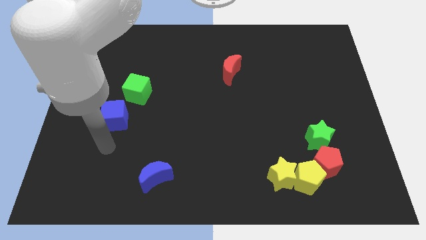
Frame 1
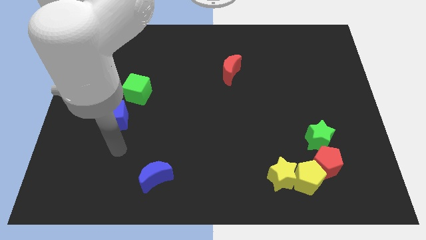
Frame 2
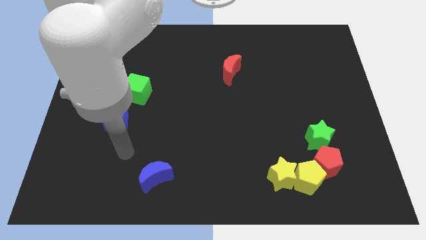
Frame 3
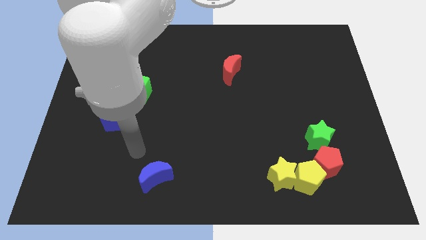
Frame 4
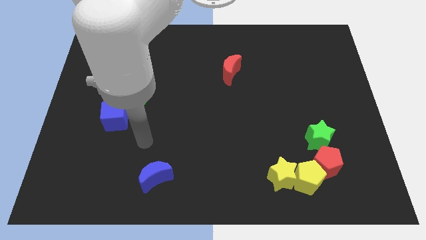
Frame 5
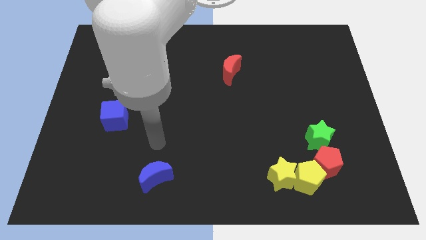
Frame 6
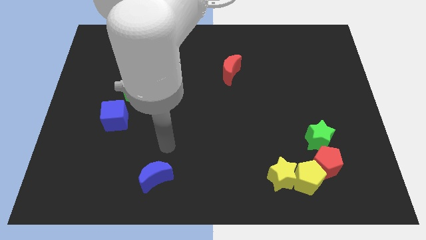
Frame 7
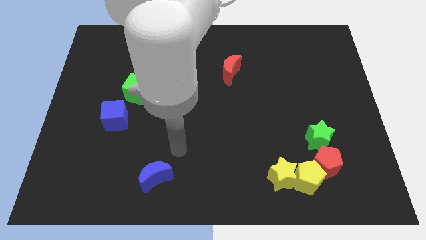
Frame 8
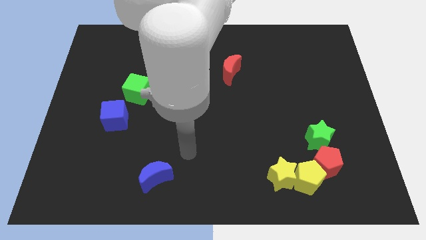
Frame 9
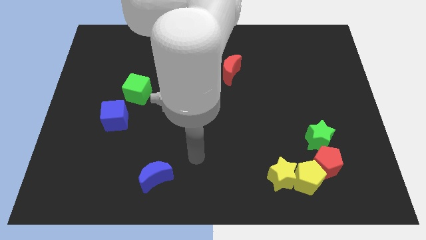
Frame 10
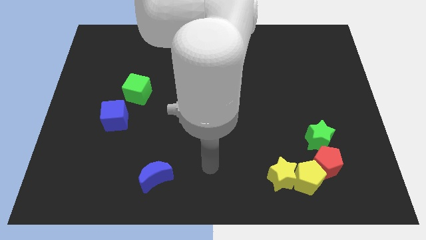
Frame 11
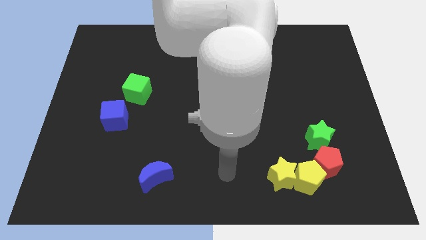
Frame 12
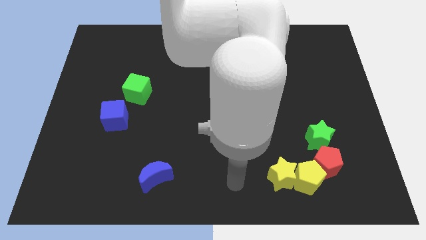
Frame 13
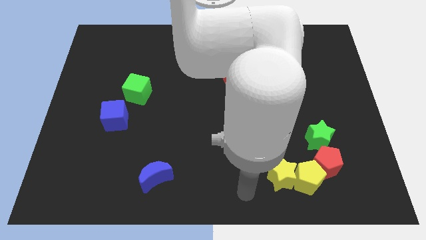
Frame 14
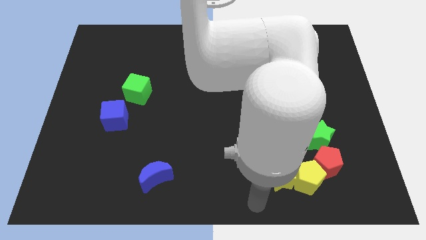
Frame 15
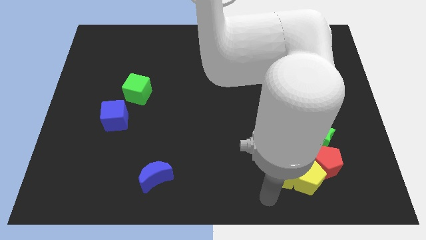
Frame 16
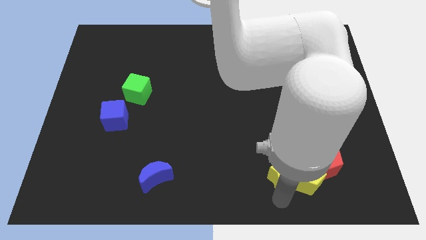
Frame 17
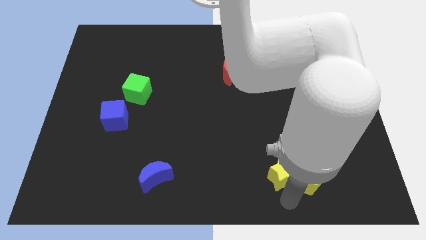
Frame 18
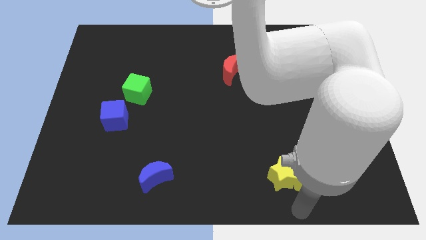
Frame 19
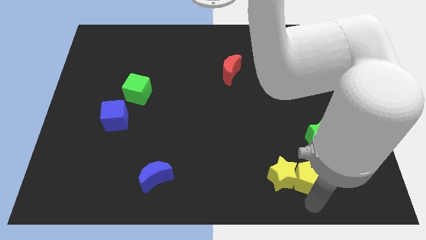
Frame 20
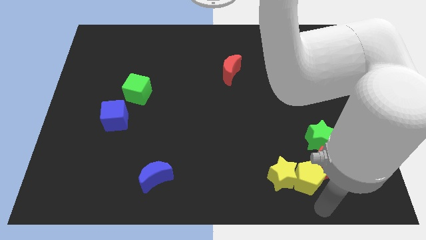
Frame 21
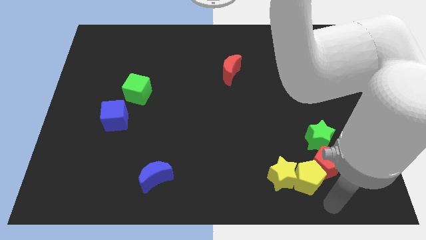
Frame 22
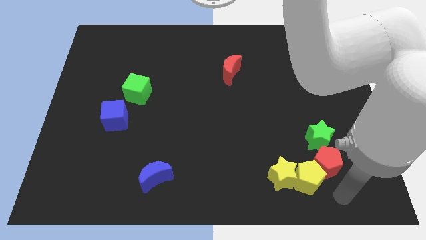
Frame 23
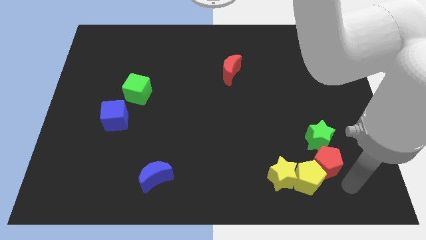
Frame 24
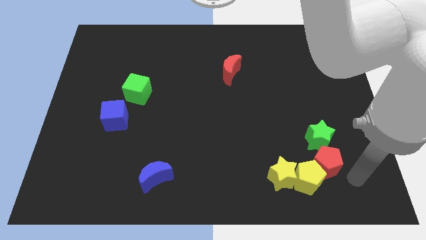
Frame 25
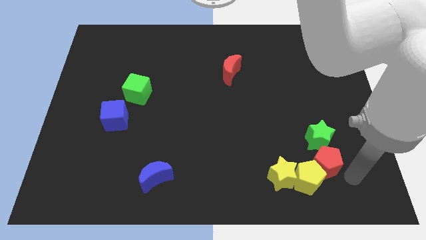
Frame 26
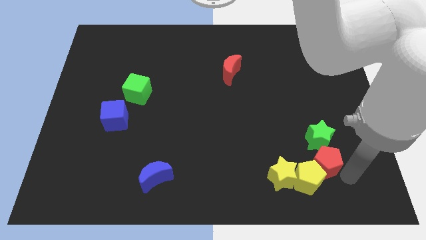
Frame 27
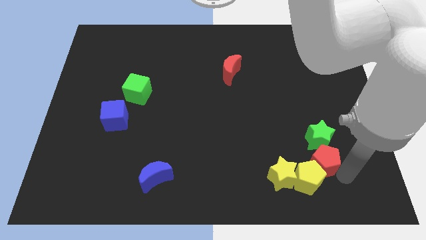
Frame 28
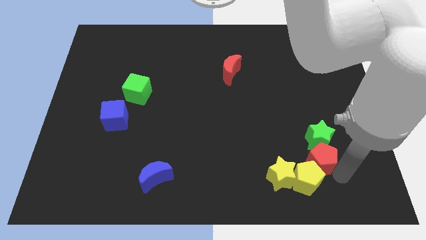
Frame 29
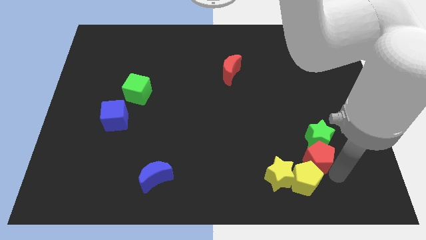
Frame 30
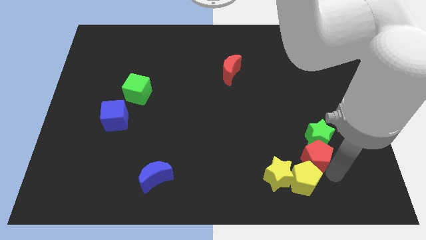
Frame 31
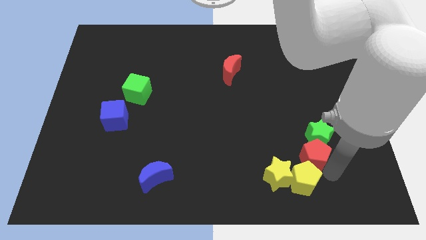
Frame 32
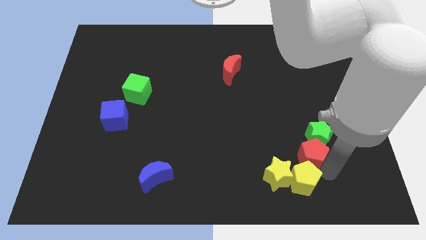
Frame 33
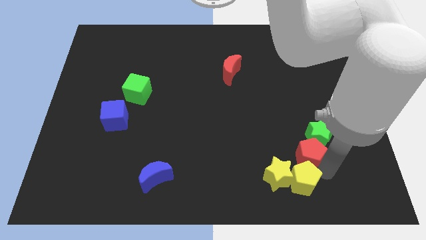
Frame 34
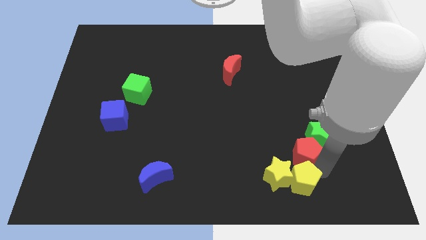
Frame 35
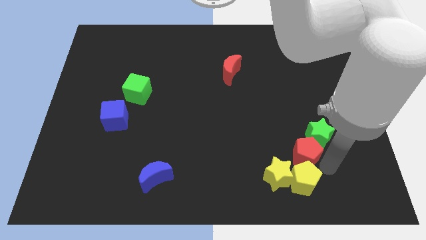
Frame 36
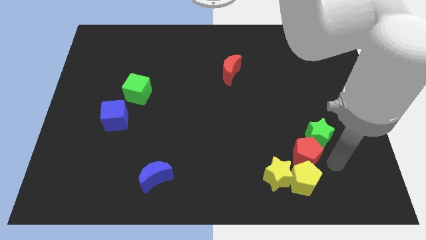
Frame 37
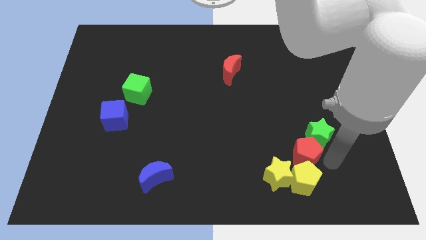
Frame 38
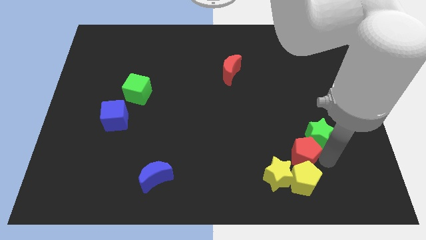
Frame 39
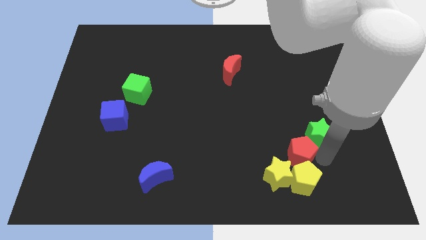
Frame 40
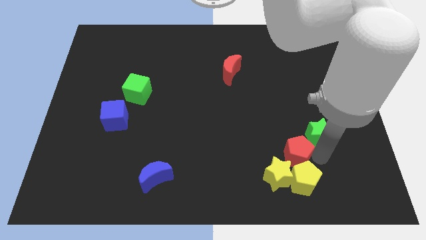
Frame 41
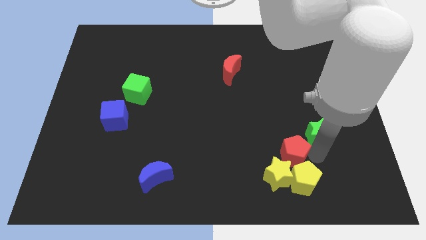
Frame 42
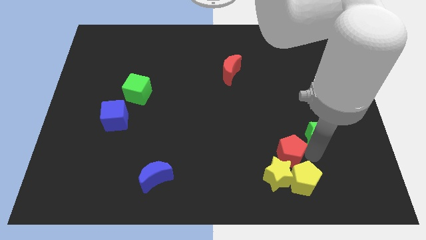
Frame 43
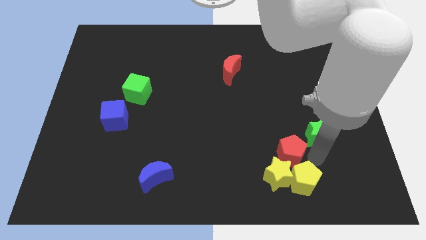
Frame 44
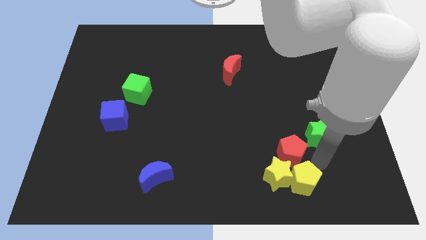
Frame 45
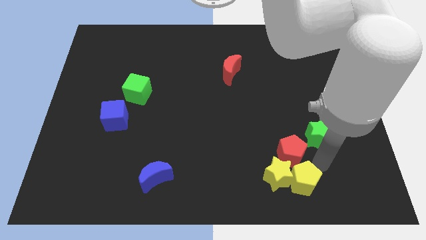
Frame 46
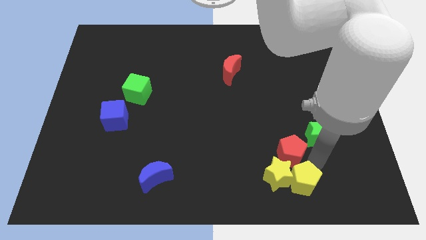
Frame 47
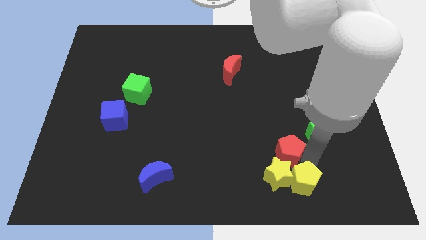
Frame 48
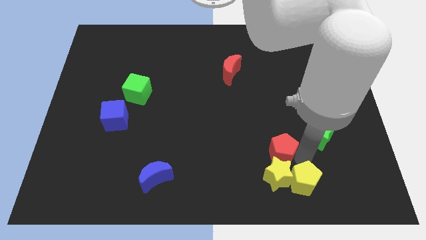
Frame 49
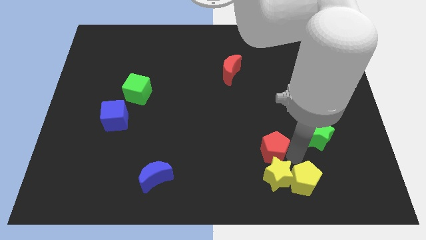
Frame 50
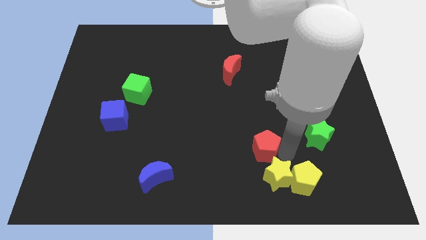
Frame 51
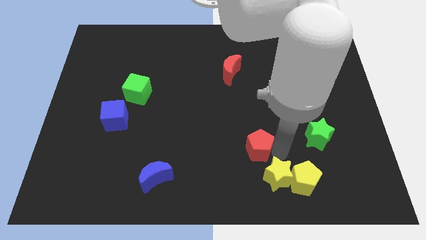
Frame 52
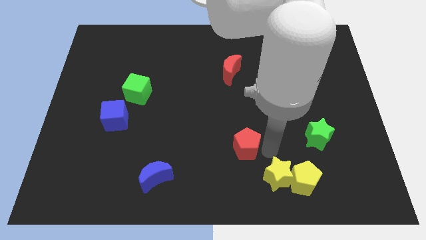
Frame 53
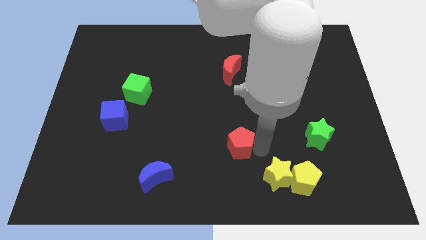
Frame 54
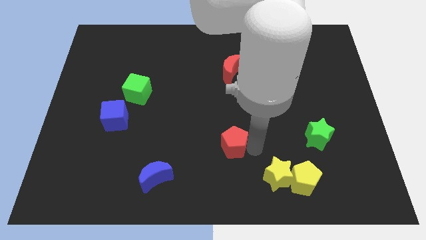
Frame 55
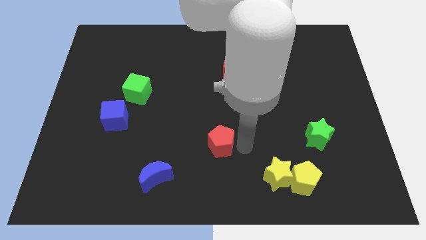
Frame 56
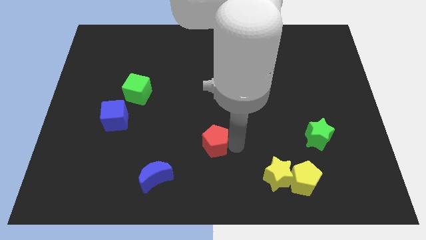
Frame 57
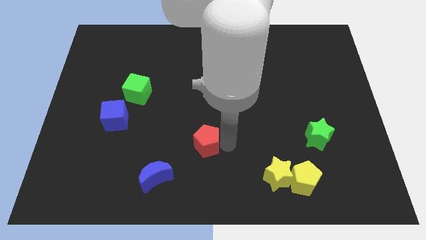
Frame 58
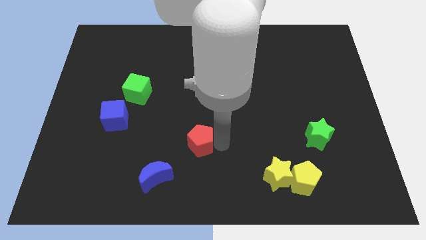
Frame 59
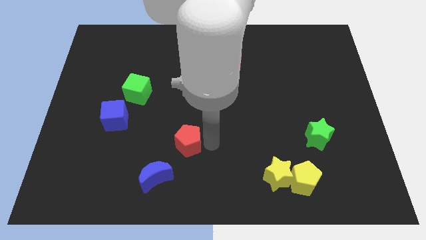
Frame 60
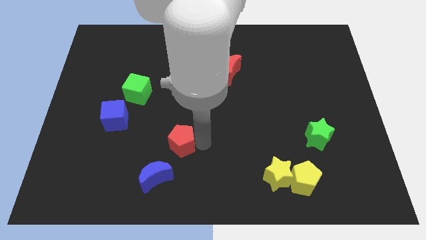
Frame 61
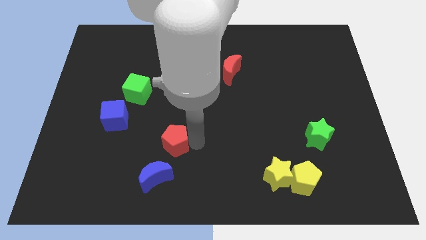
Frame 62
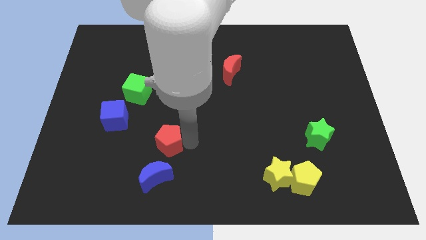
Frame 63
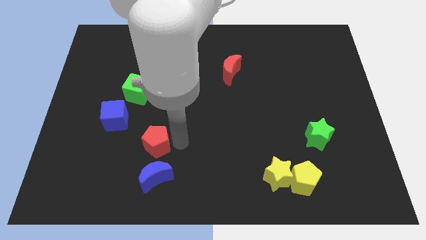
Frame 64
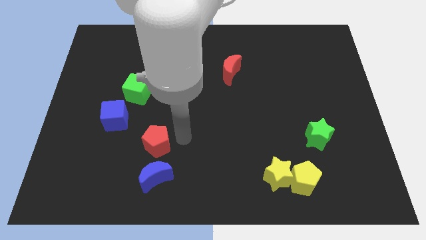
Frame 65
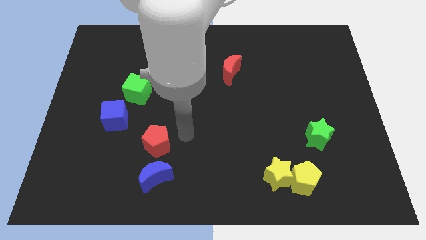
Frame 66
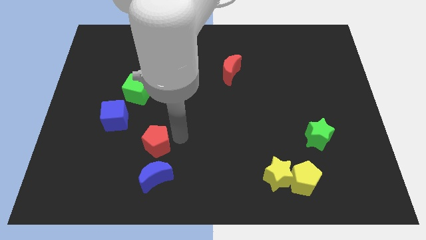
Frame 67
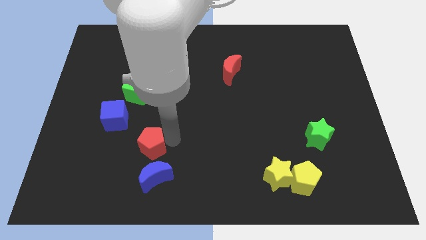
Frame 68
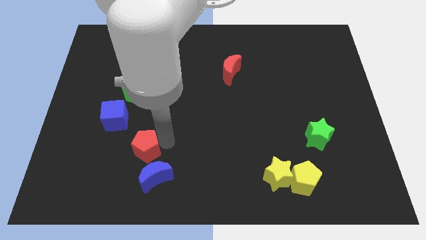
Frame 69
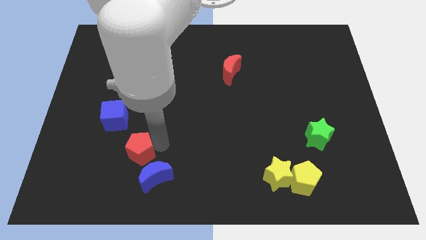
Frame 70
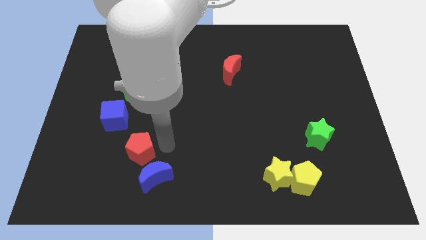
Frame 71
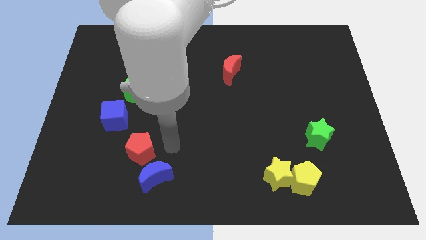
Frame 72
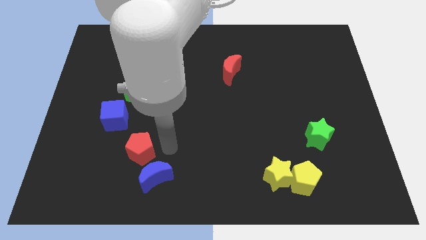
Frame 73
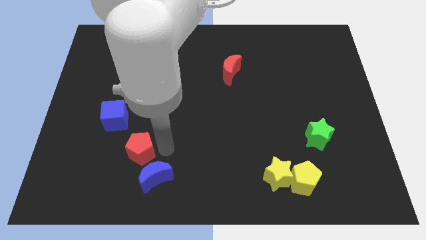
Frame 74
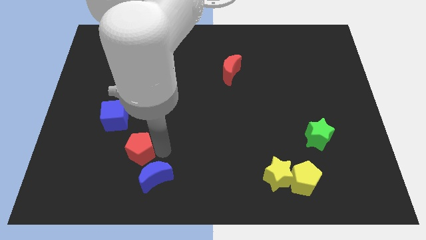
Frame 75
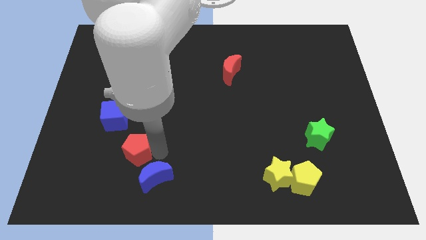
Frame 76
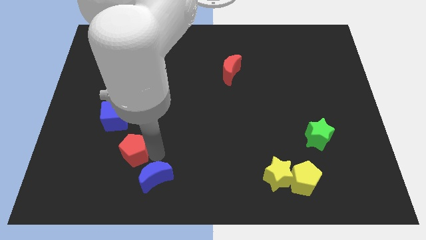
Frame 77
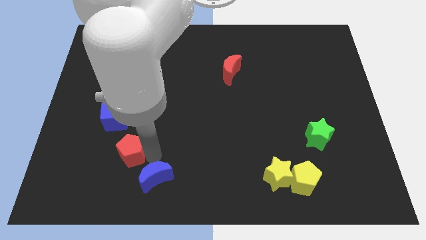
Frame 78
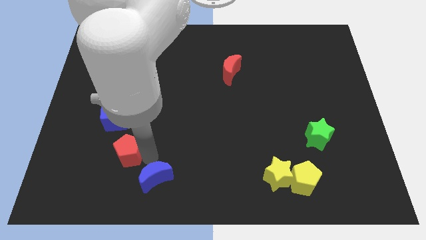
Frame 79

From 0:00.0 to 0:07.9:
push the red pentagon to the bottom of the blue cube
